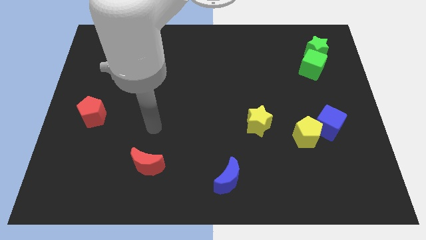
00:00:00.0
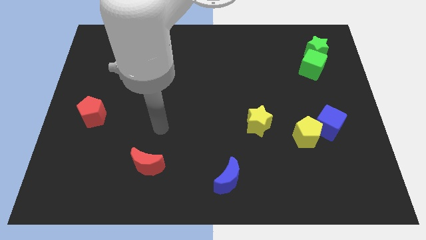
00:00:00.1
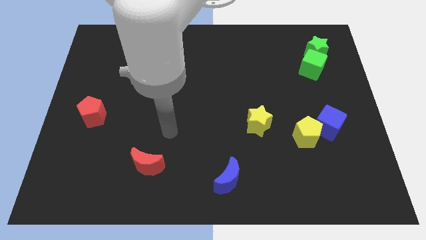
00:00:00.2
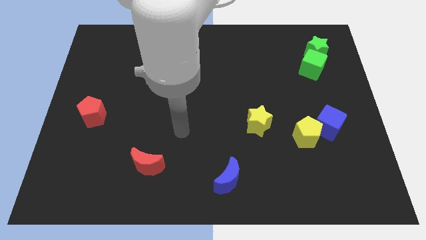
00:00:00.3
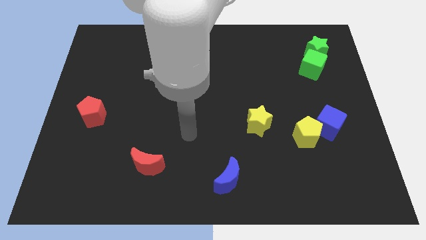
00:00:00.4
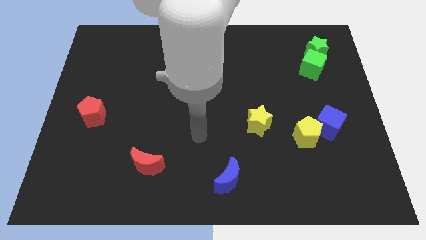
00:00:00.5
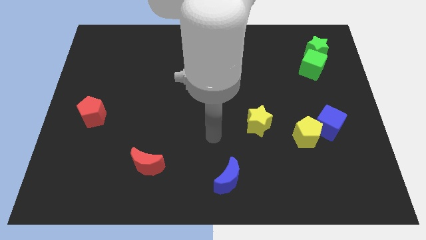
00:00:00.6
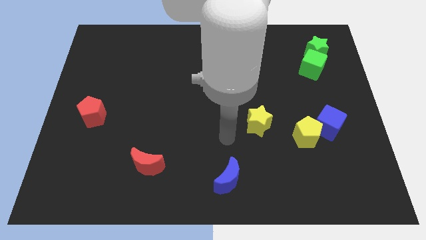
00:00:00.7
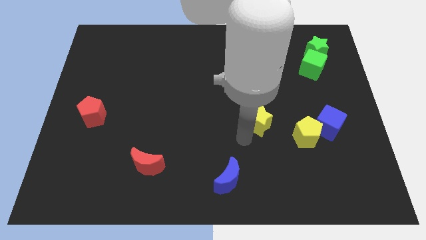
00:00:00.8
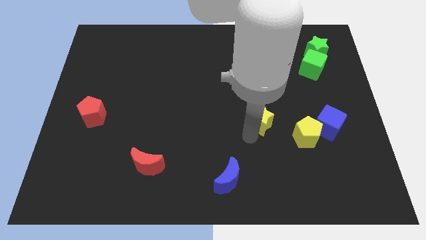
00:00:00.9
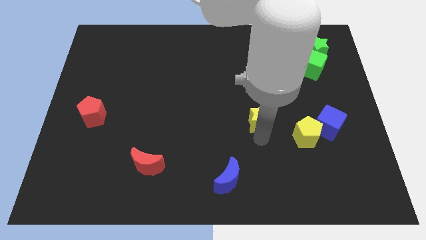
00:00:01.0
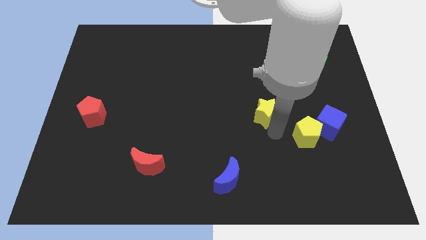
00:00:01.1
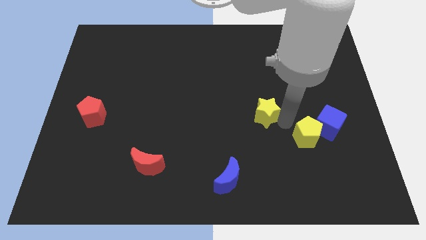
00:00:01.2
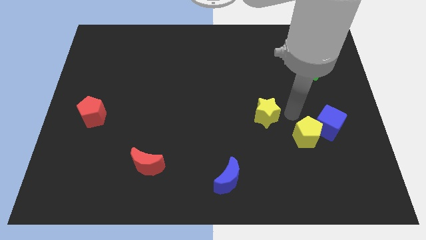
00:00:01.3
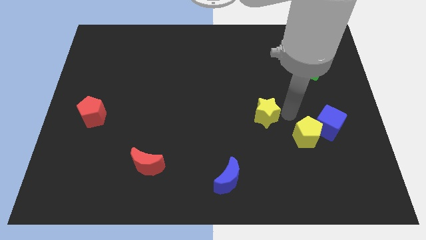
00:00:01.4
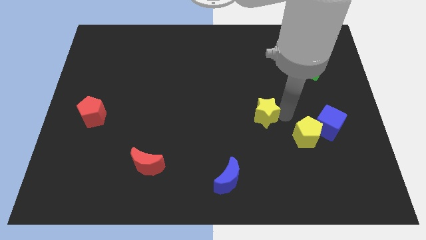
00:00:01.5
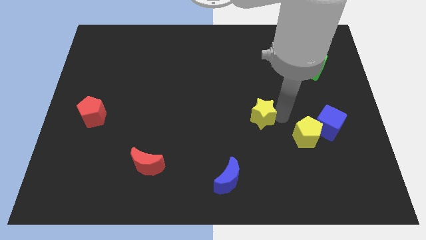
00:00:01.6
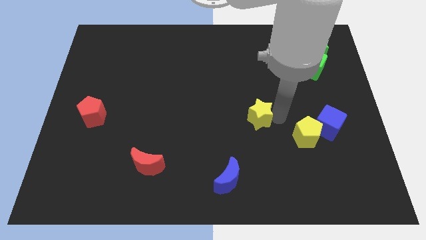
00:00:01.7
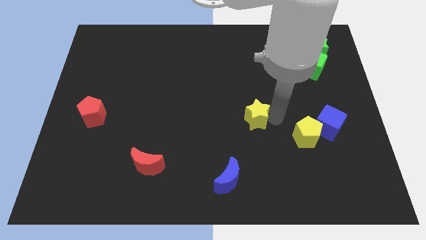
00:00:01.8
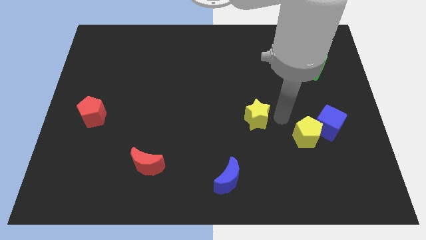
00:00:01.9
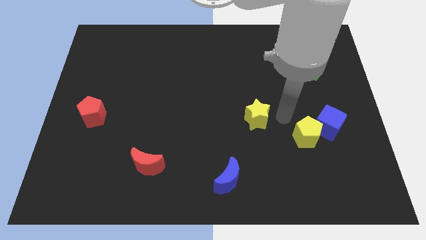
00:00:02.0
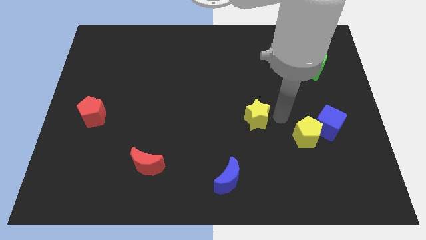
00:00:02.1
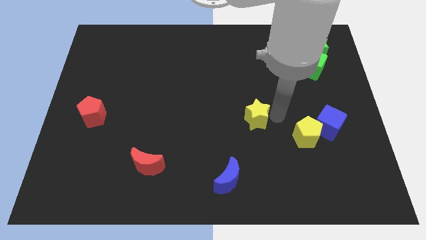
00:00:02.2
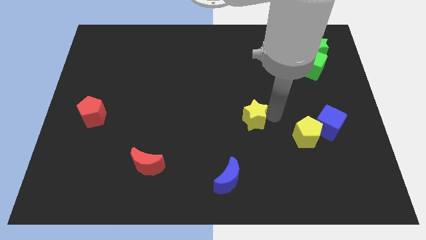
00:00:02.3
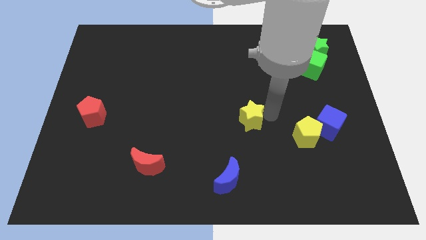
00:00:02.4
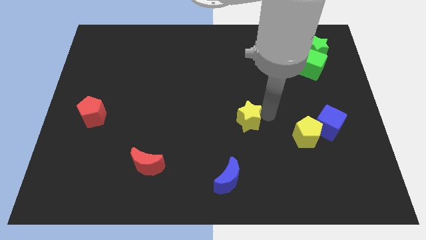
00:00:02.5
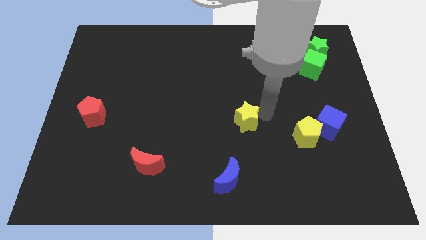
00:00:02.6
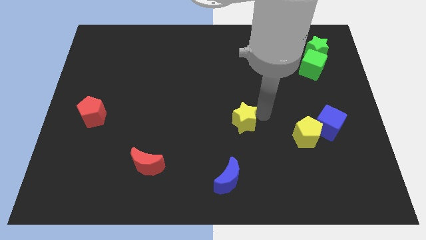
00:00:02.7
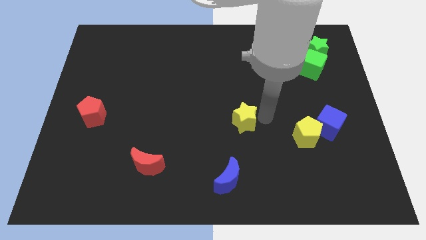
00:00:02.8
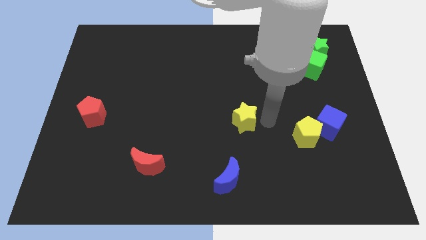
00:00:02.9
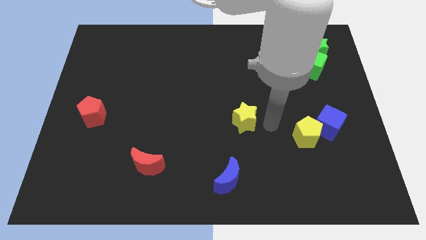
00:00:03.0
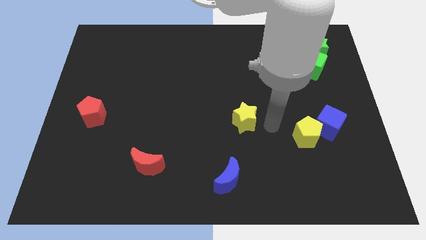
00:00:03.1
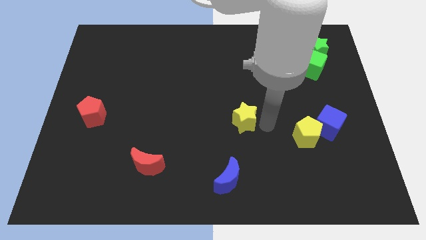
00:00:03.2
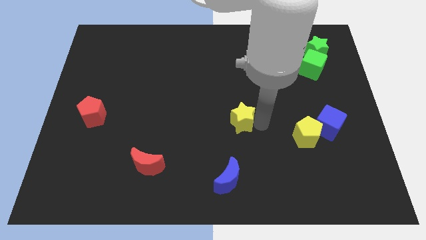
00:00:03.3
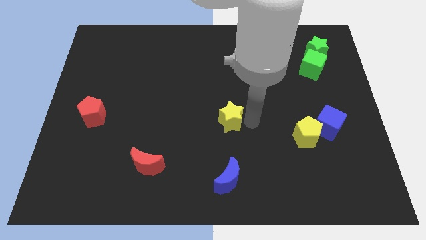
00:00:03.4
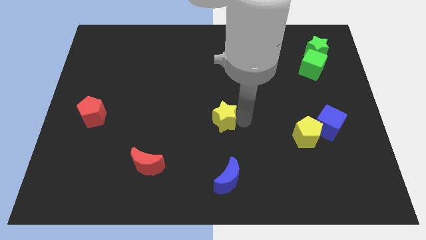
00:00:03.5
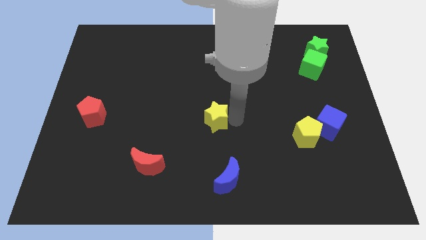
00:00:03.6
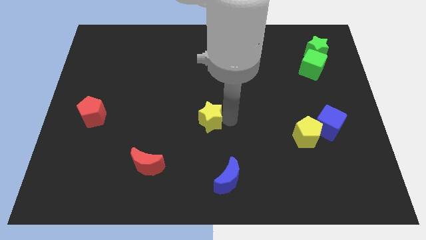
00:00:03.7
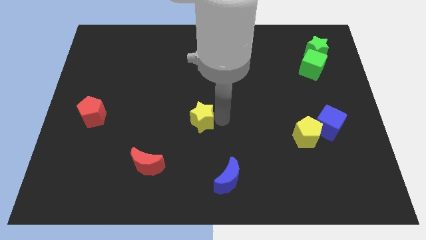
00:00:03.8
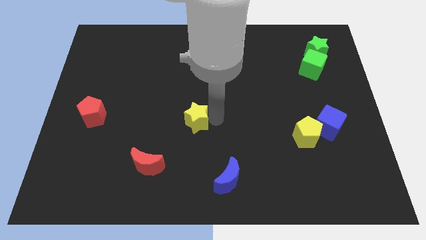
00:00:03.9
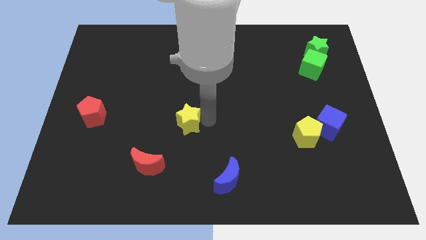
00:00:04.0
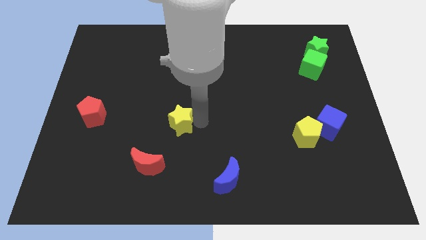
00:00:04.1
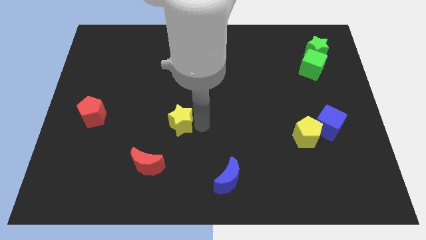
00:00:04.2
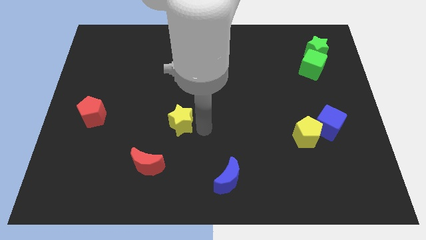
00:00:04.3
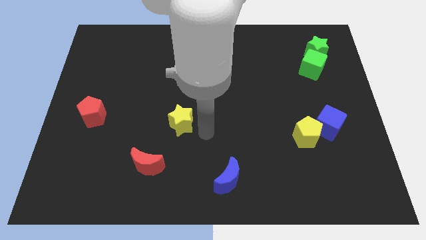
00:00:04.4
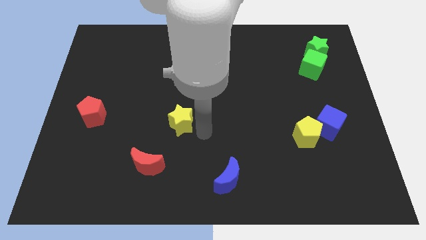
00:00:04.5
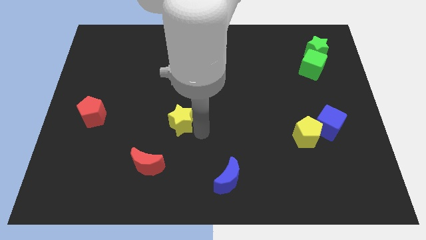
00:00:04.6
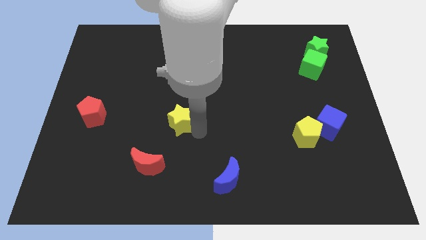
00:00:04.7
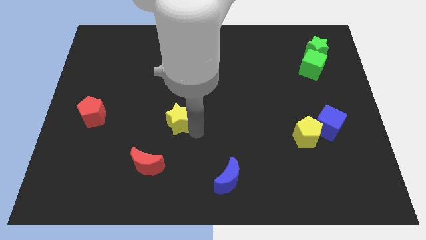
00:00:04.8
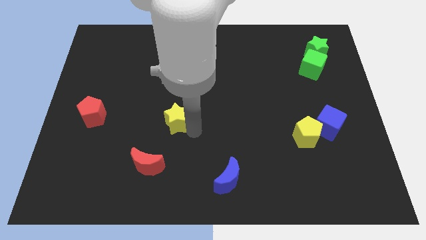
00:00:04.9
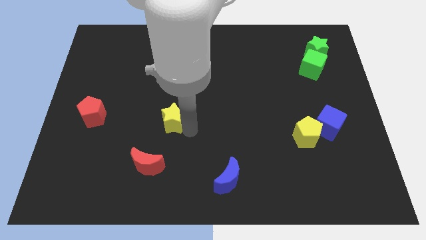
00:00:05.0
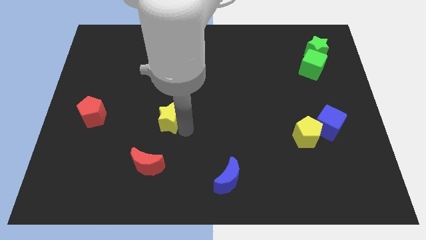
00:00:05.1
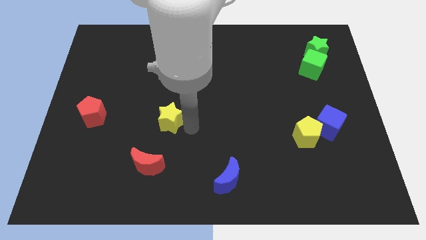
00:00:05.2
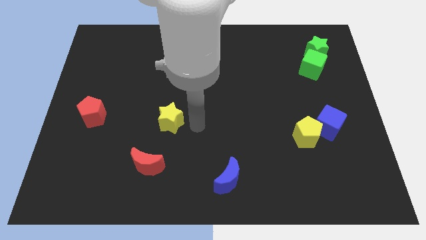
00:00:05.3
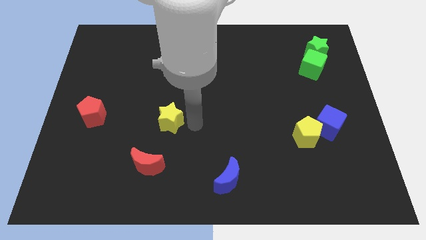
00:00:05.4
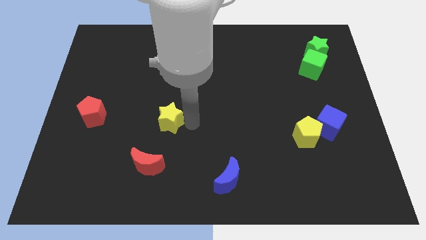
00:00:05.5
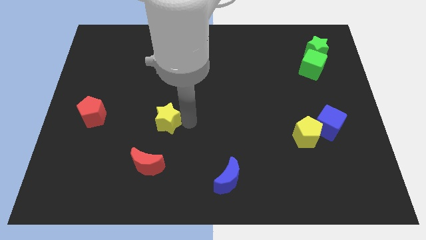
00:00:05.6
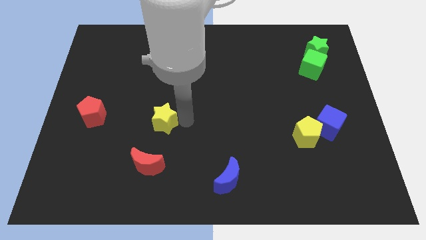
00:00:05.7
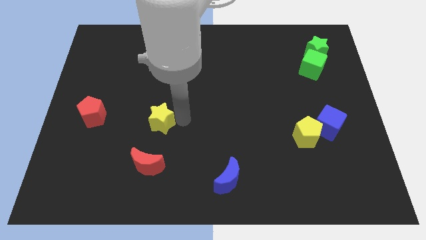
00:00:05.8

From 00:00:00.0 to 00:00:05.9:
move the yellow star right of the red pentagon

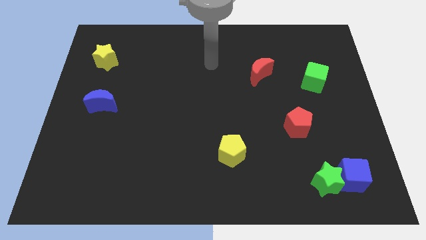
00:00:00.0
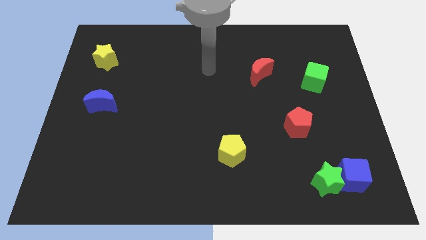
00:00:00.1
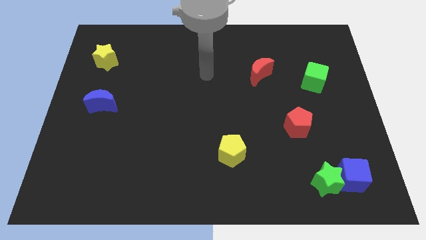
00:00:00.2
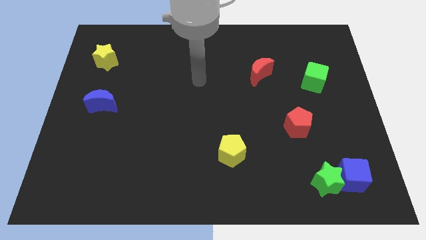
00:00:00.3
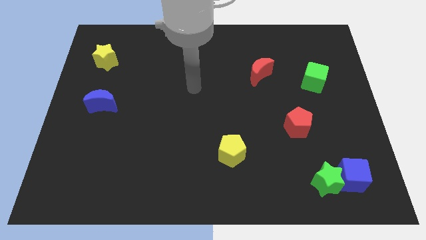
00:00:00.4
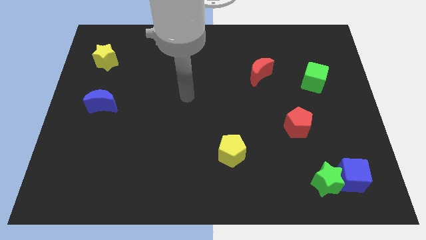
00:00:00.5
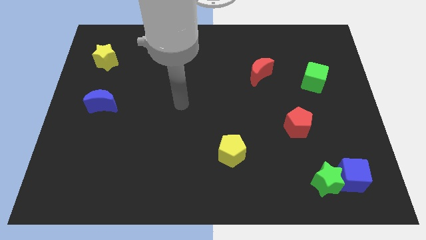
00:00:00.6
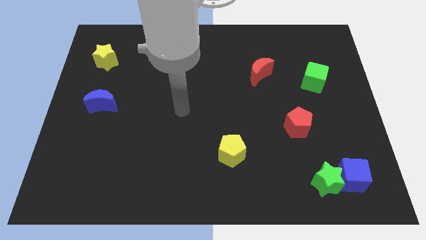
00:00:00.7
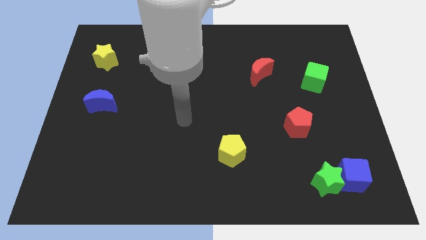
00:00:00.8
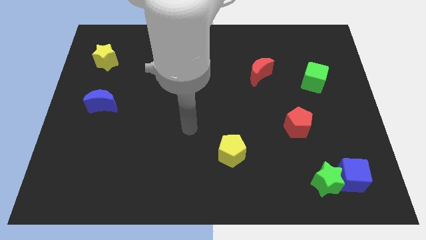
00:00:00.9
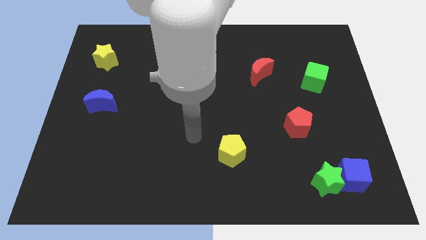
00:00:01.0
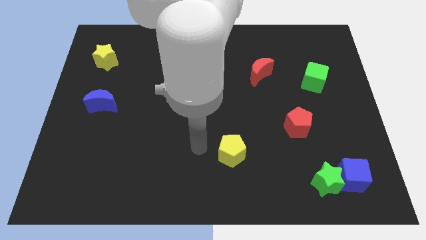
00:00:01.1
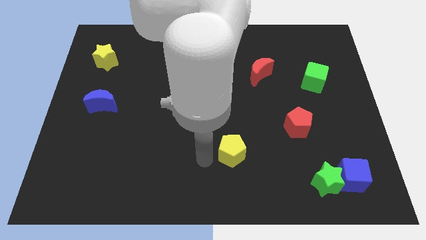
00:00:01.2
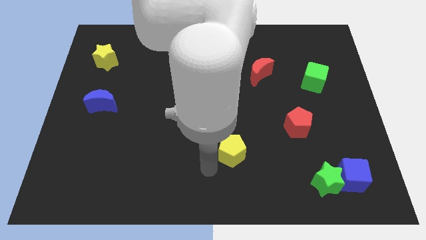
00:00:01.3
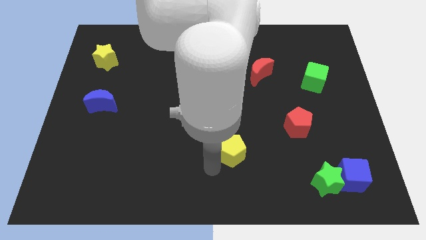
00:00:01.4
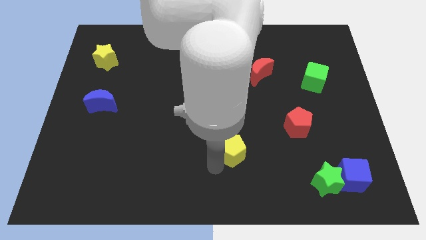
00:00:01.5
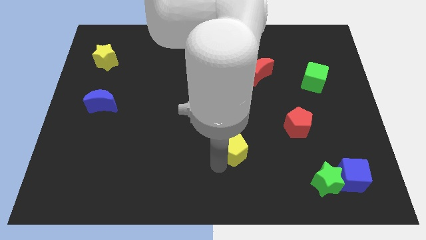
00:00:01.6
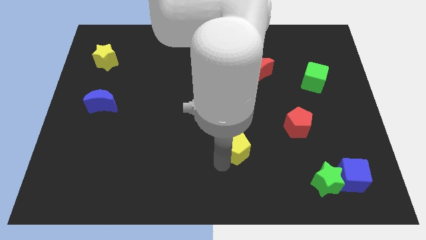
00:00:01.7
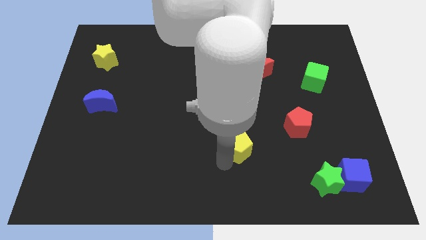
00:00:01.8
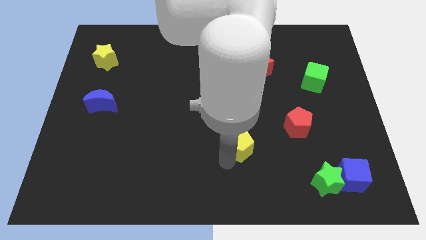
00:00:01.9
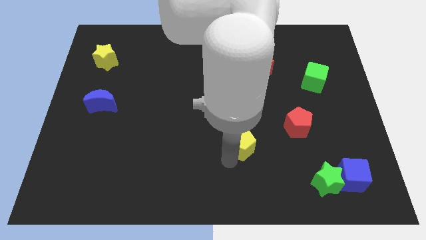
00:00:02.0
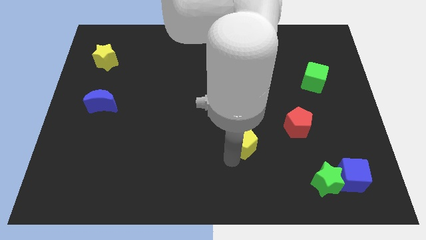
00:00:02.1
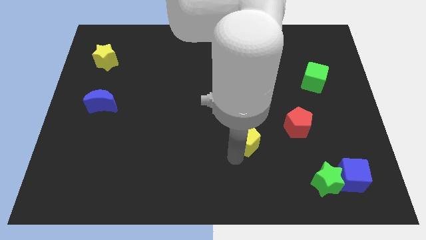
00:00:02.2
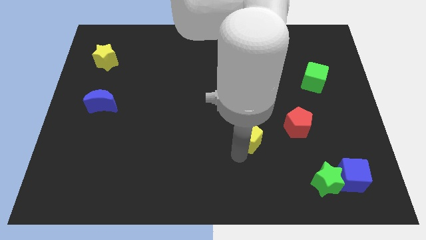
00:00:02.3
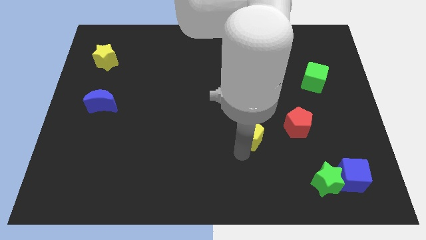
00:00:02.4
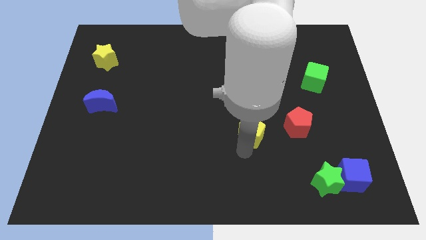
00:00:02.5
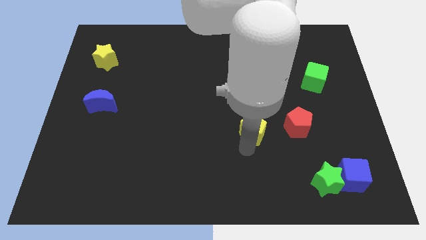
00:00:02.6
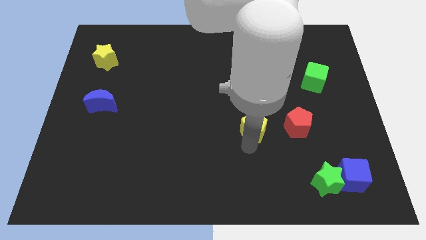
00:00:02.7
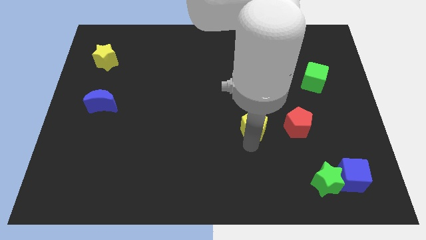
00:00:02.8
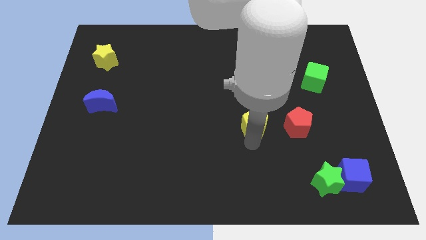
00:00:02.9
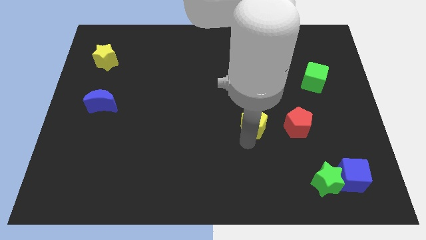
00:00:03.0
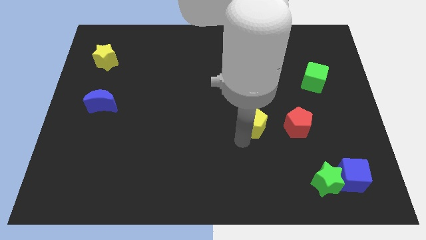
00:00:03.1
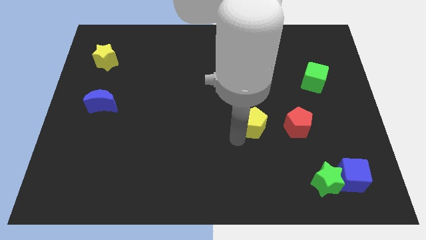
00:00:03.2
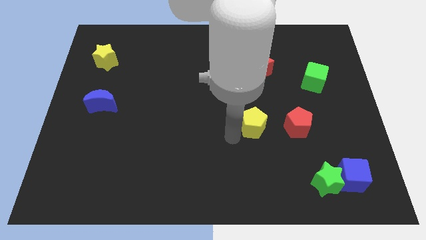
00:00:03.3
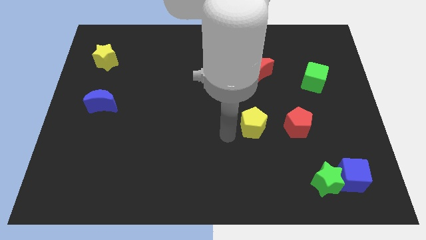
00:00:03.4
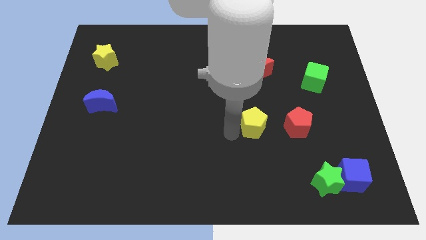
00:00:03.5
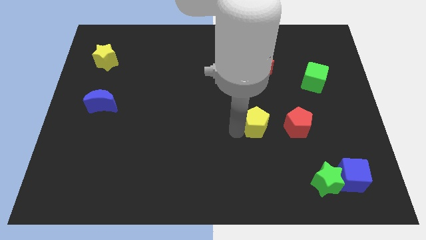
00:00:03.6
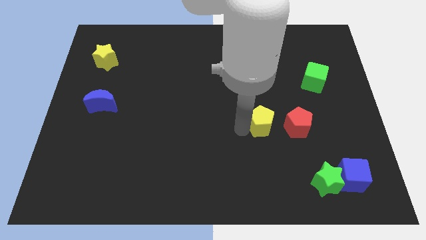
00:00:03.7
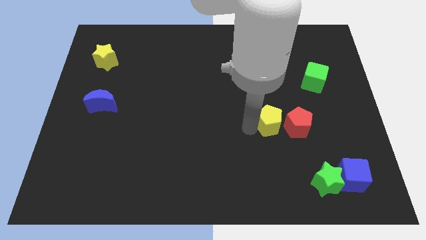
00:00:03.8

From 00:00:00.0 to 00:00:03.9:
move the yellow pentagon to the top left side of the red pentagon
